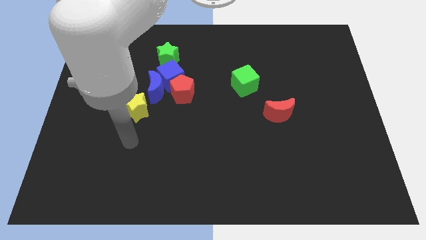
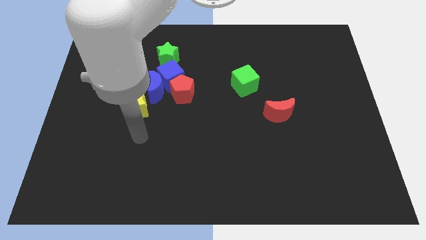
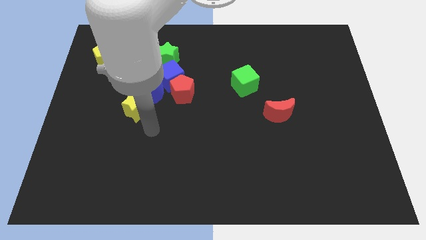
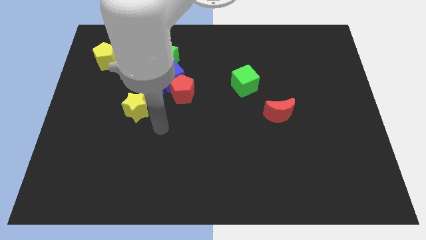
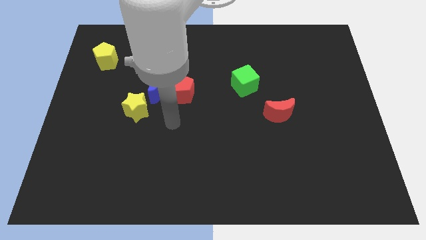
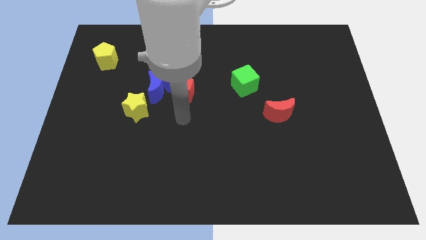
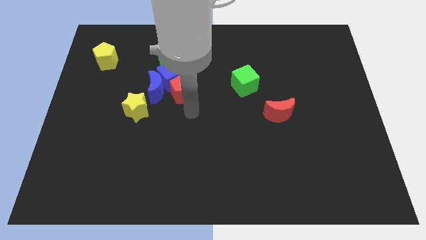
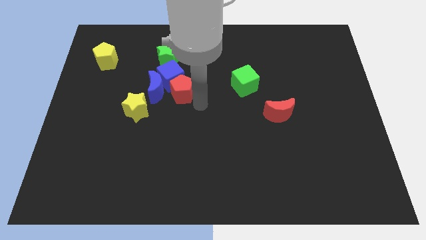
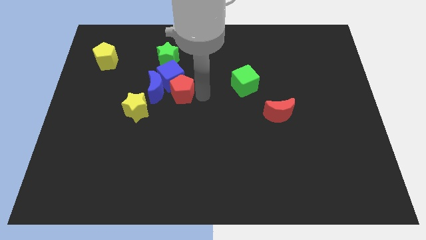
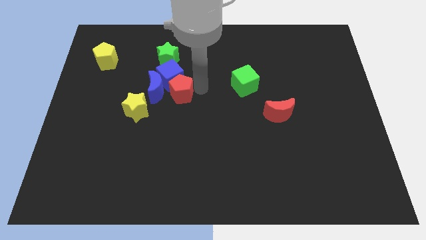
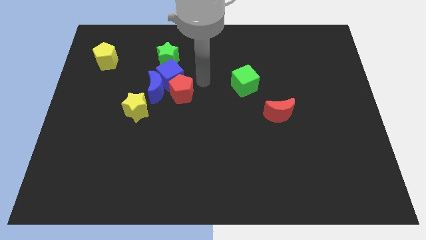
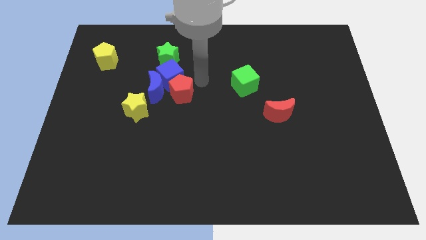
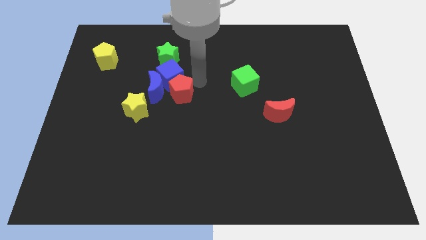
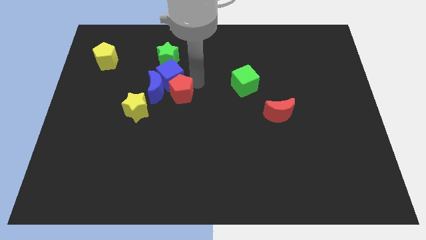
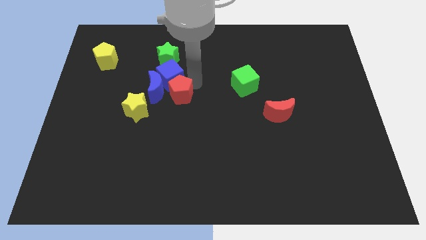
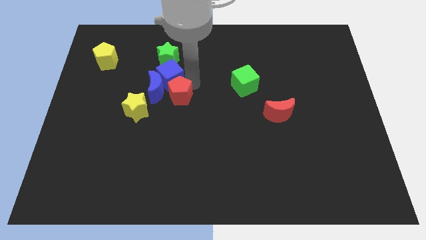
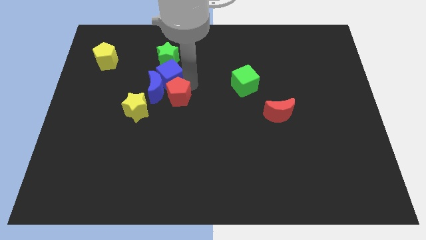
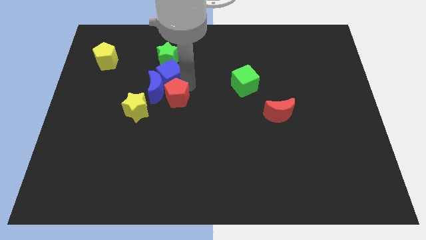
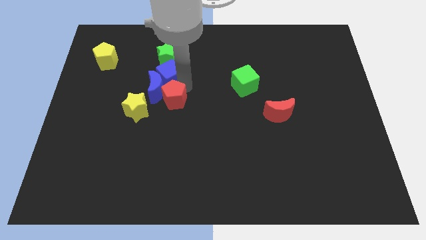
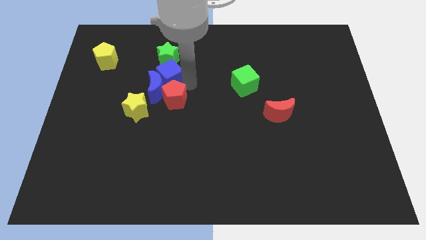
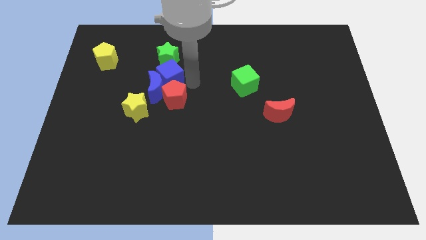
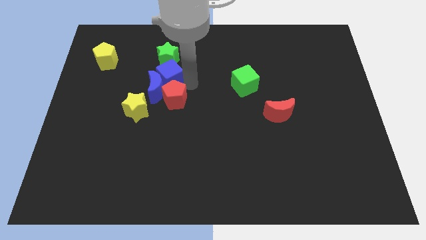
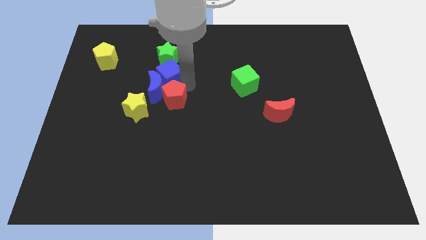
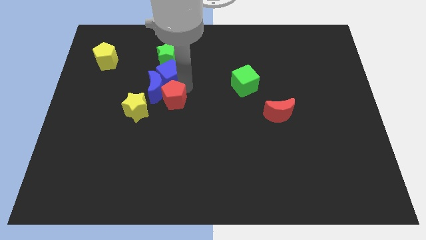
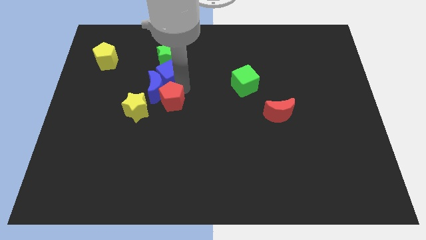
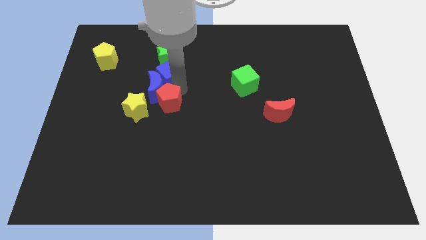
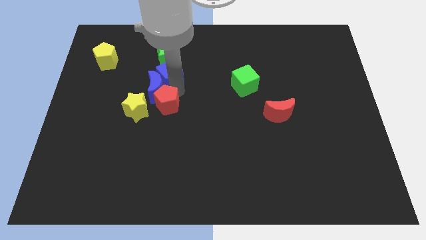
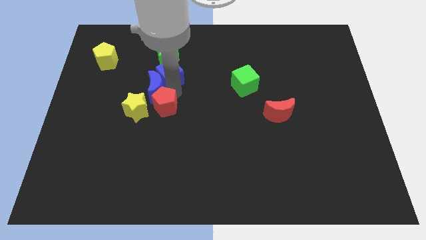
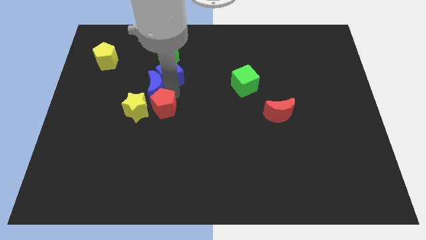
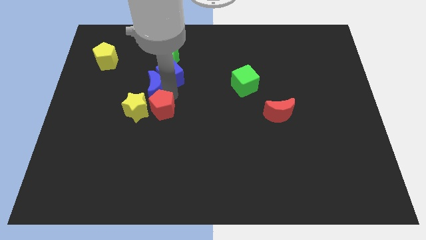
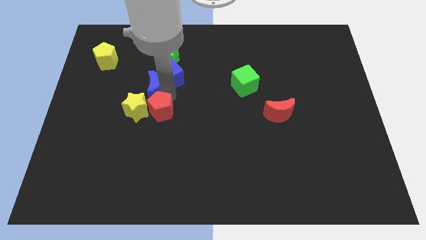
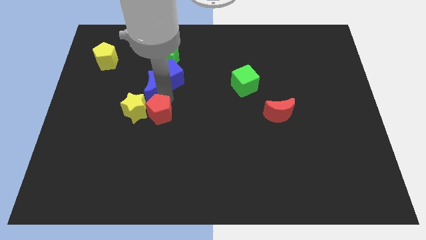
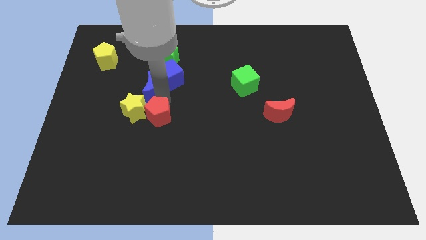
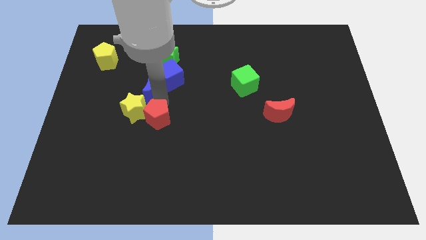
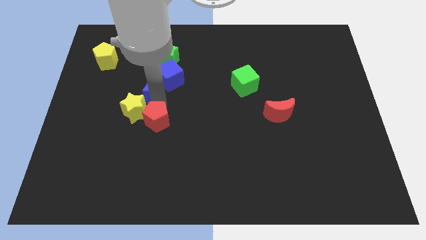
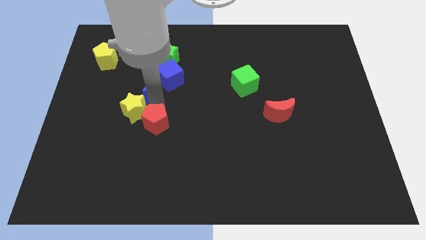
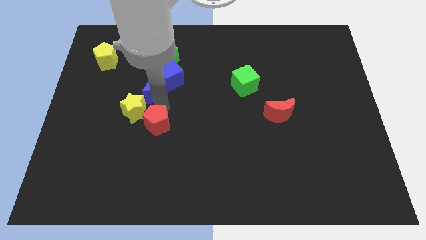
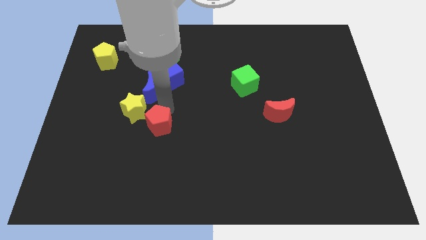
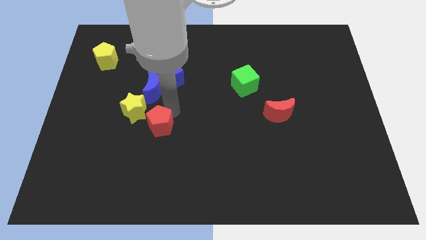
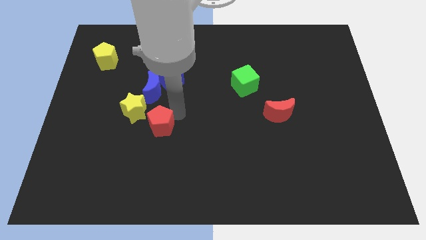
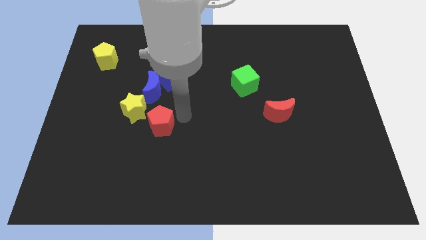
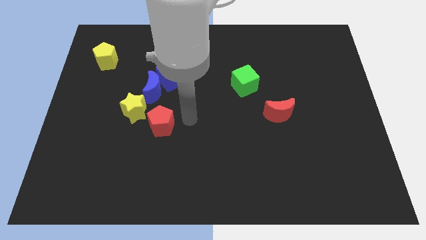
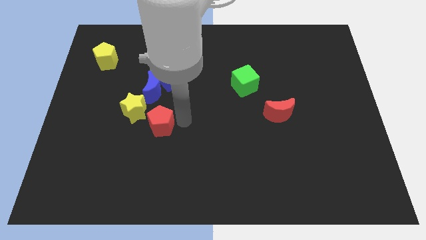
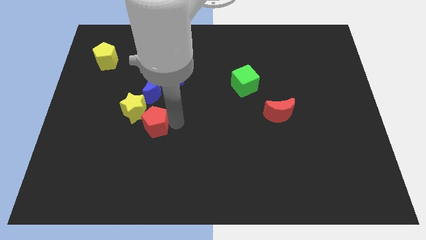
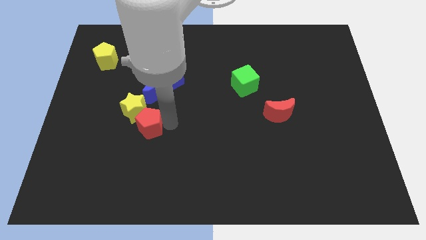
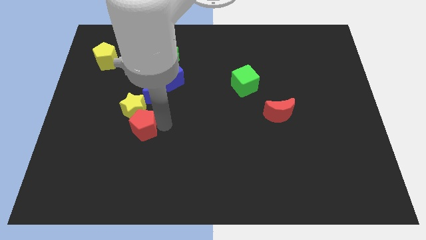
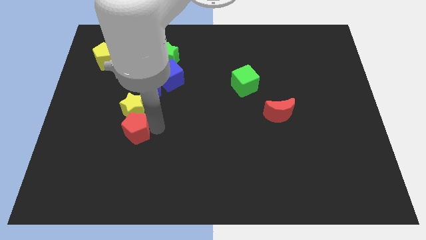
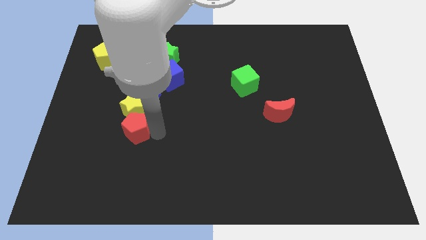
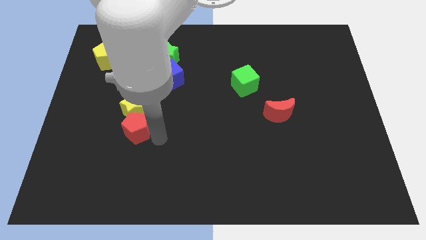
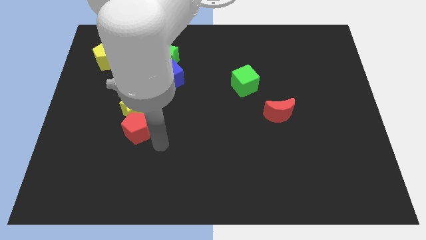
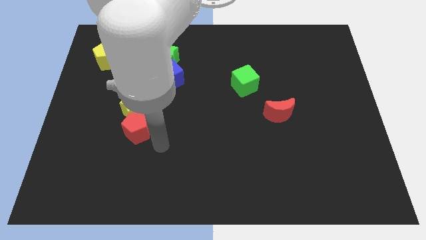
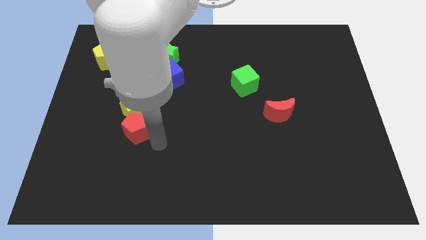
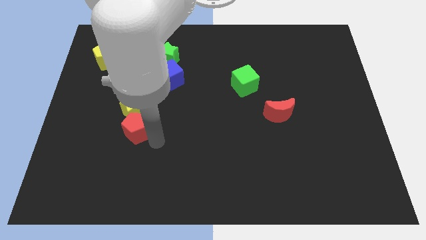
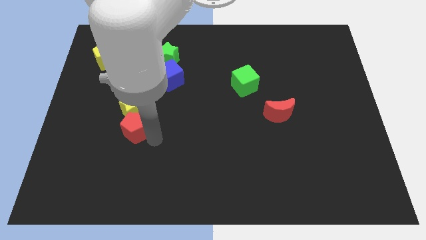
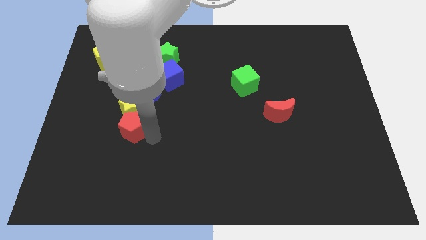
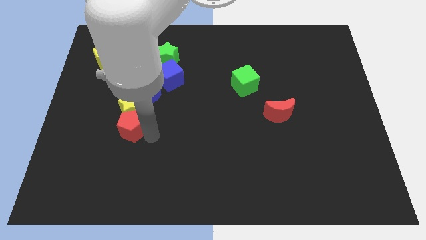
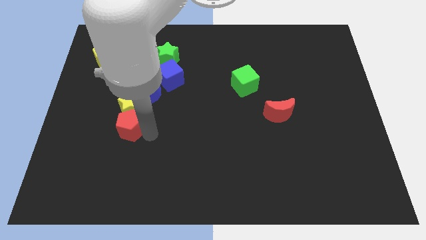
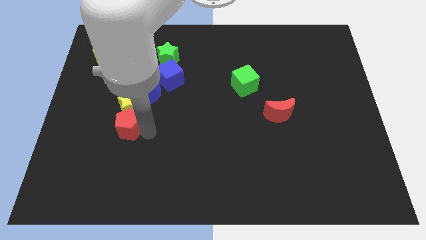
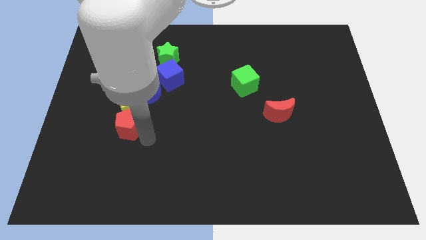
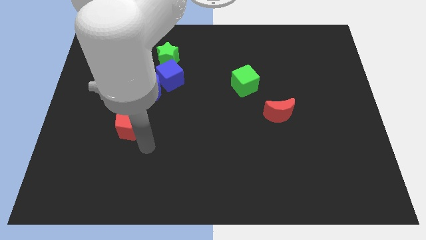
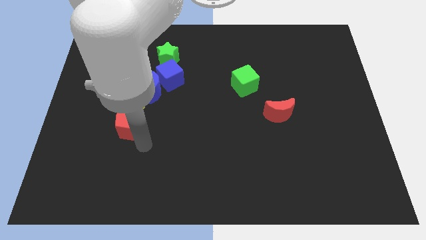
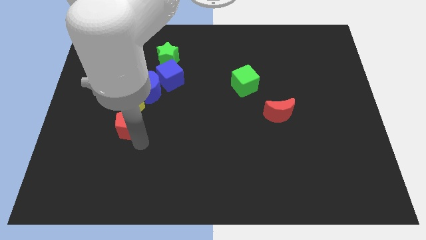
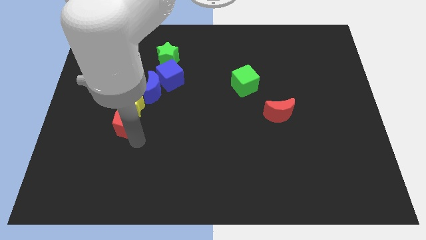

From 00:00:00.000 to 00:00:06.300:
slide the red pentagon to the left a little

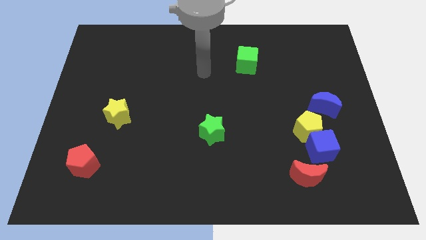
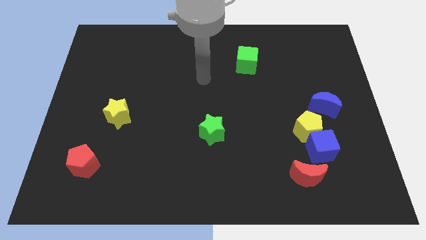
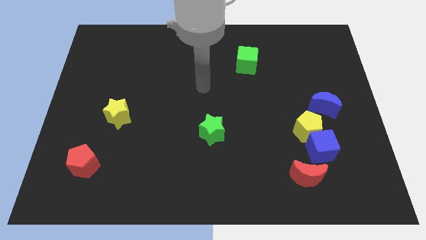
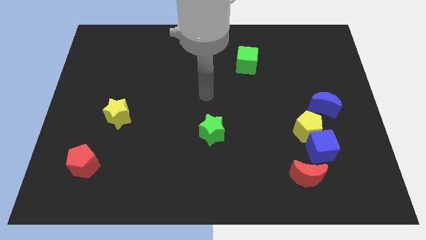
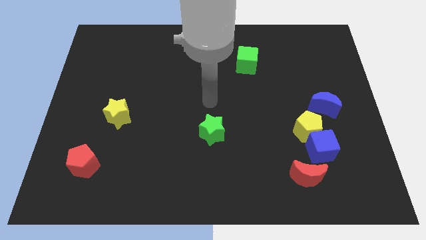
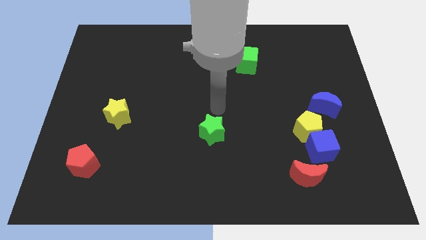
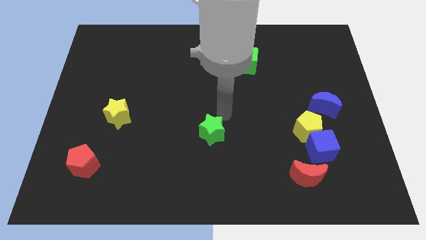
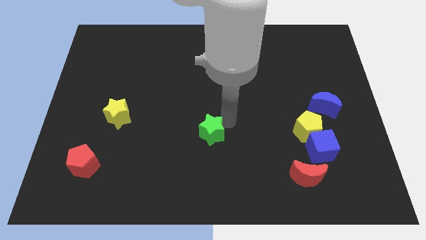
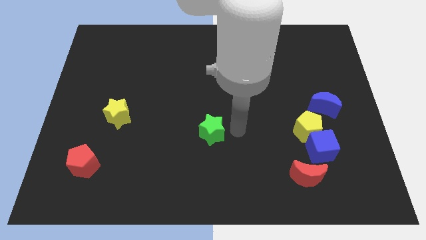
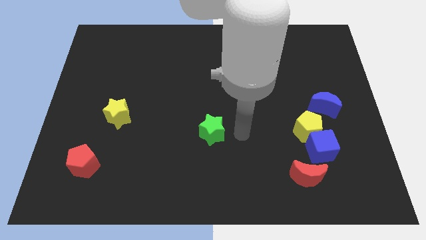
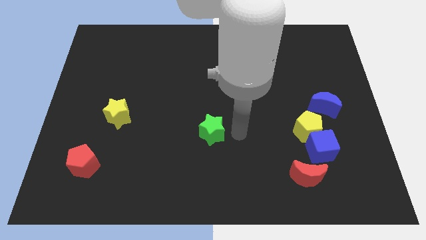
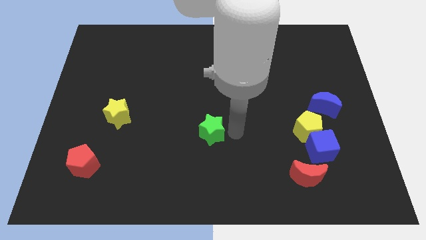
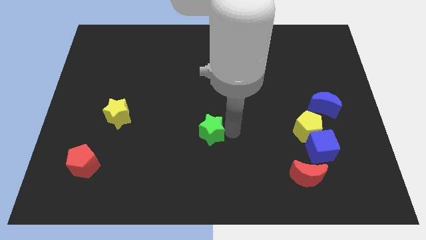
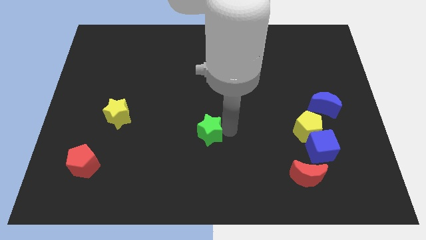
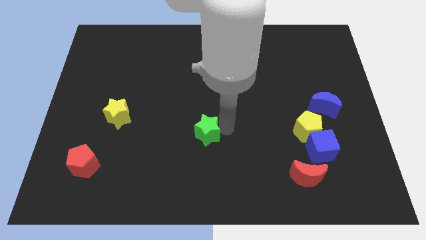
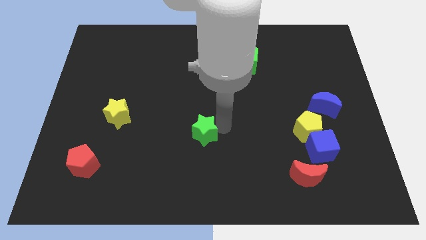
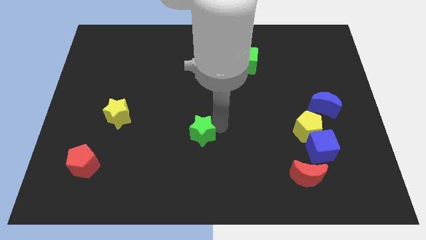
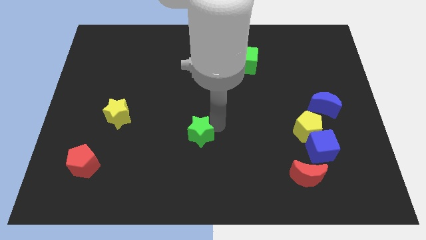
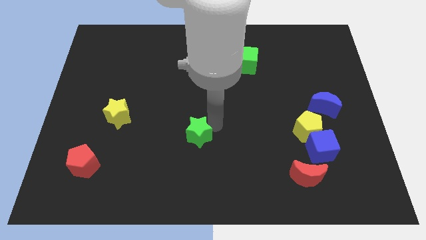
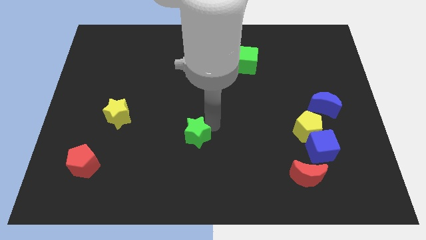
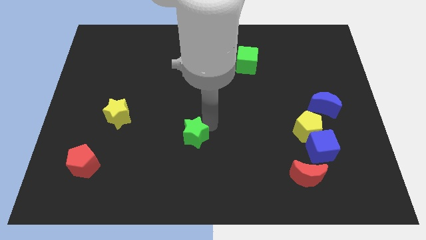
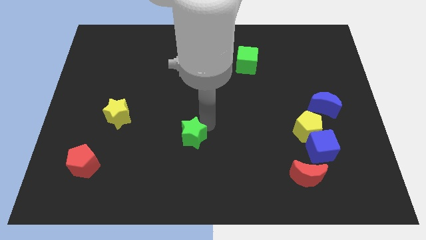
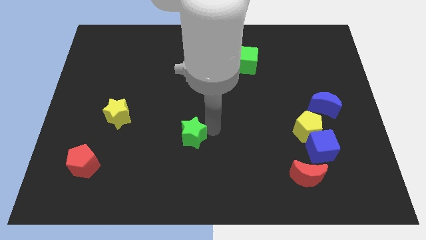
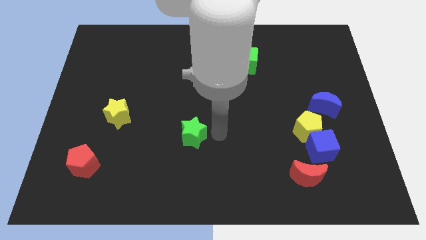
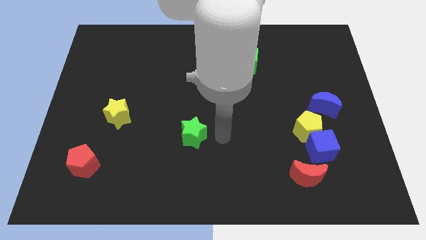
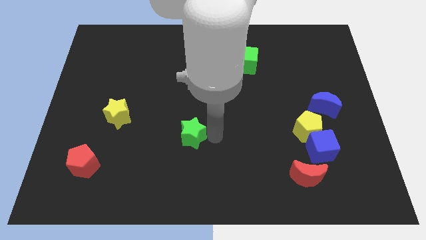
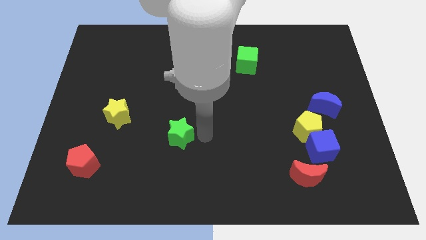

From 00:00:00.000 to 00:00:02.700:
slide the green star left a little
